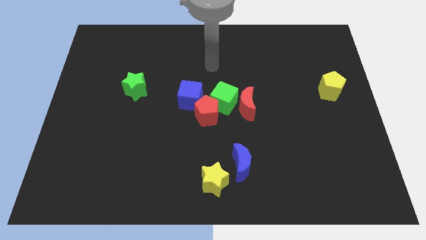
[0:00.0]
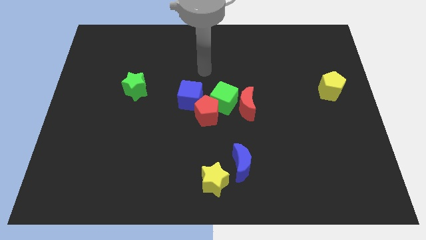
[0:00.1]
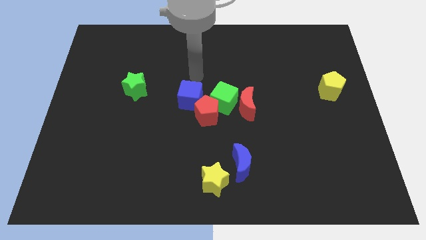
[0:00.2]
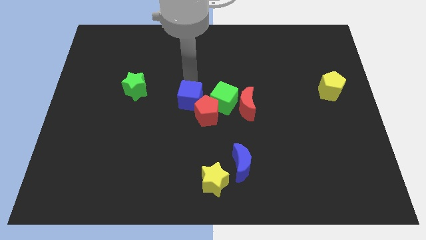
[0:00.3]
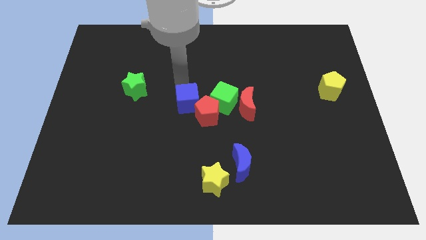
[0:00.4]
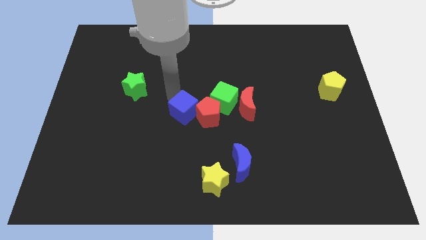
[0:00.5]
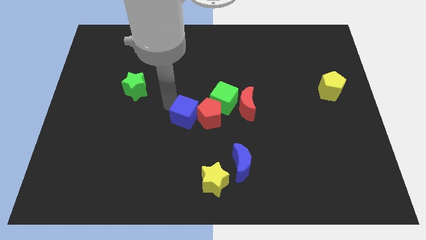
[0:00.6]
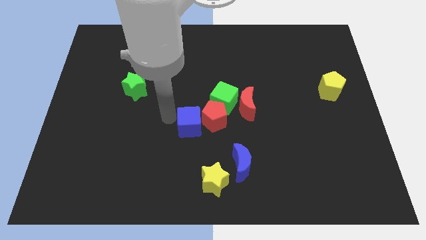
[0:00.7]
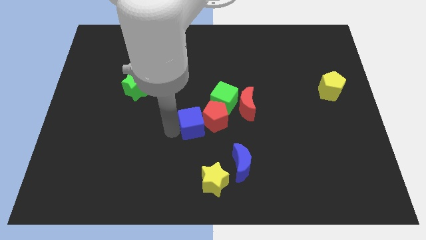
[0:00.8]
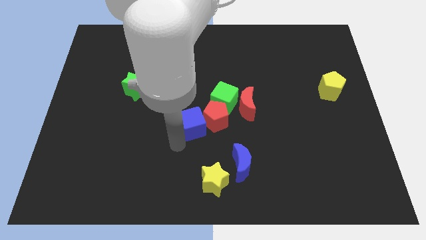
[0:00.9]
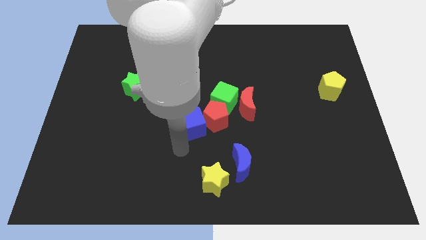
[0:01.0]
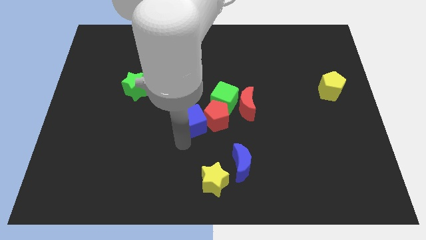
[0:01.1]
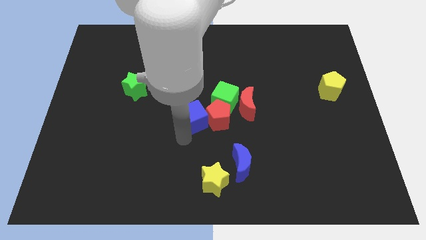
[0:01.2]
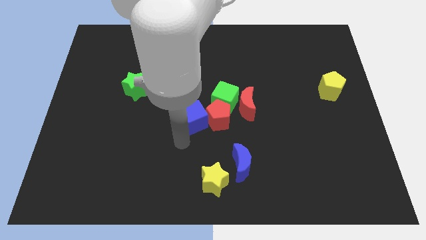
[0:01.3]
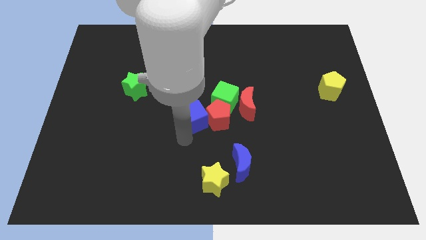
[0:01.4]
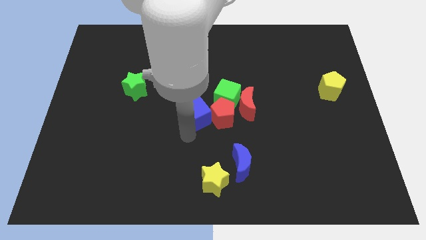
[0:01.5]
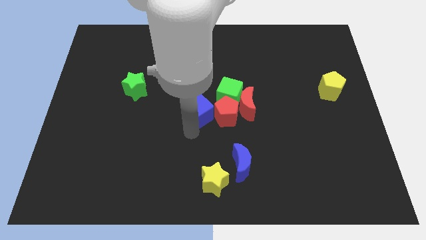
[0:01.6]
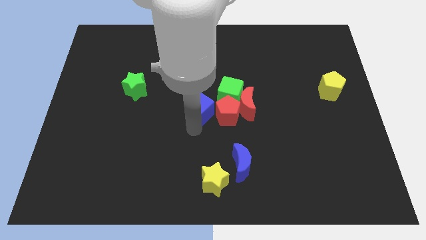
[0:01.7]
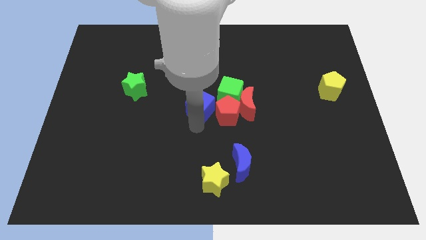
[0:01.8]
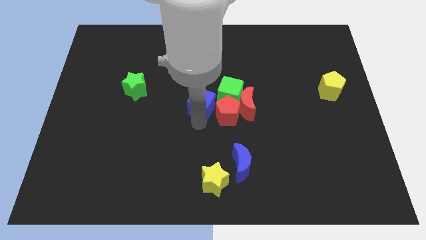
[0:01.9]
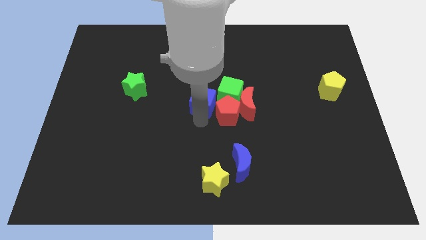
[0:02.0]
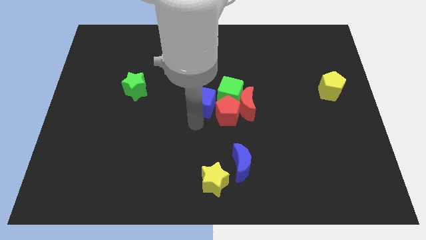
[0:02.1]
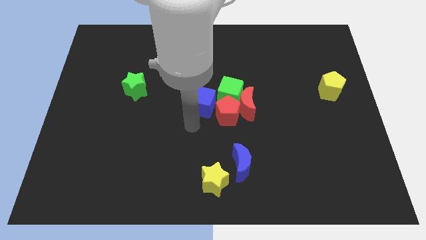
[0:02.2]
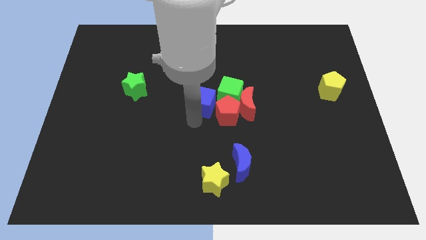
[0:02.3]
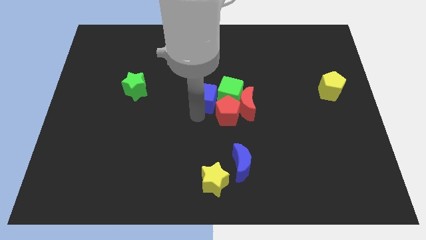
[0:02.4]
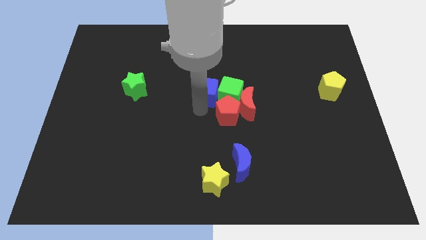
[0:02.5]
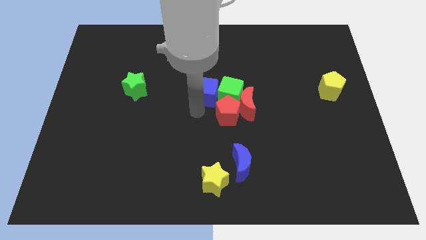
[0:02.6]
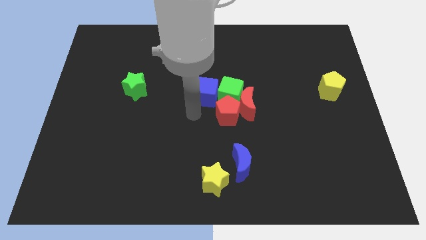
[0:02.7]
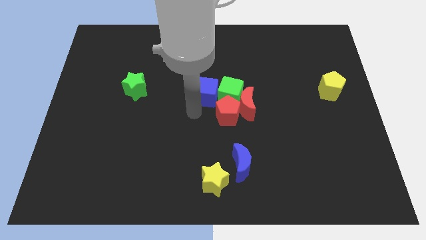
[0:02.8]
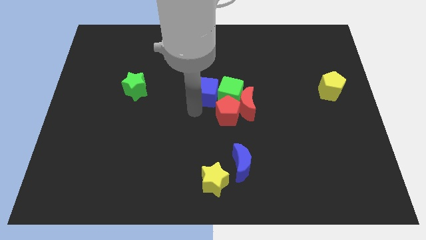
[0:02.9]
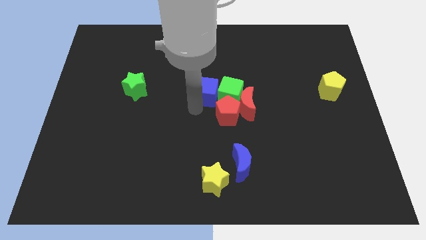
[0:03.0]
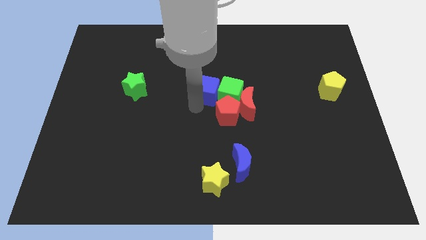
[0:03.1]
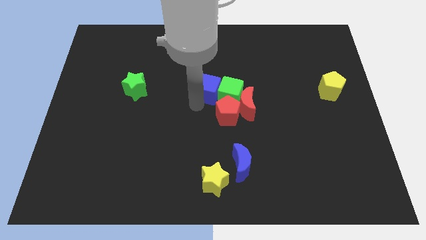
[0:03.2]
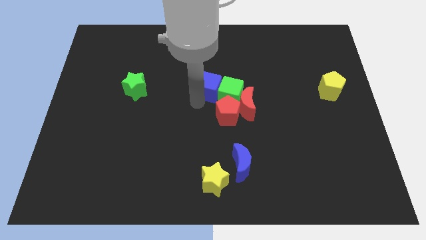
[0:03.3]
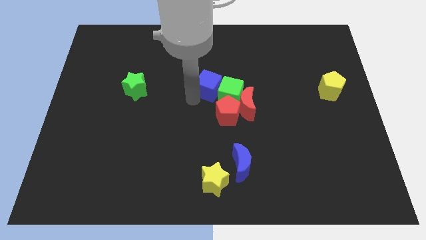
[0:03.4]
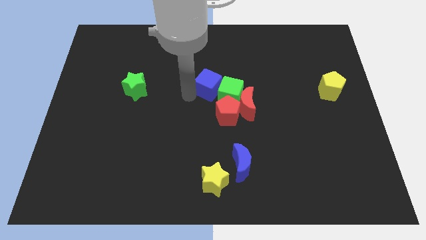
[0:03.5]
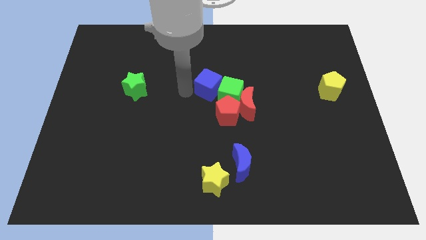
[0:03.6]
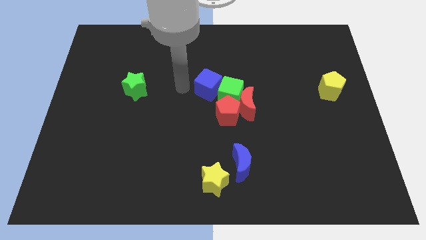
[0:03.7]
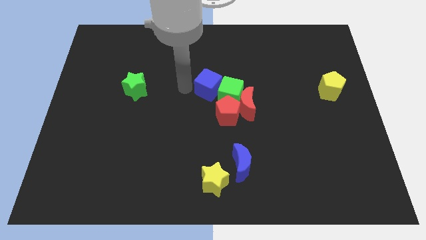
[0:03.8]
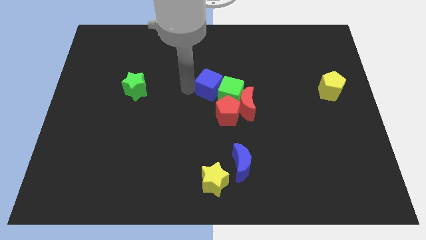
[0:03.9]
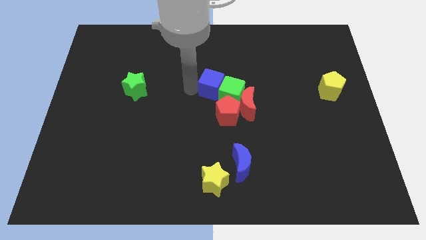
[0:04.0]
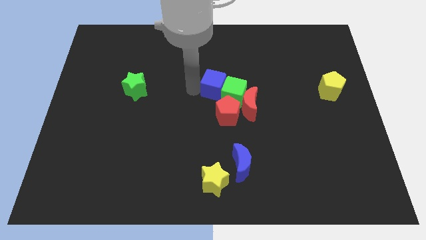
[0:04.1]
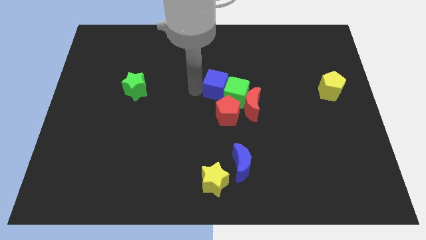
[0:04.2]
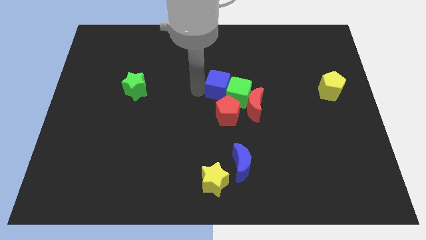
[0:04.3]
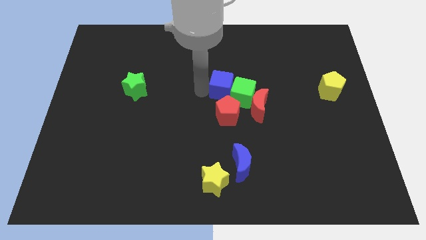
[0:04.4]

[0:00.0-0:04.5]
move the blue cube somewhat to the right

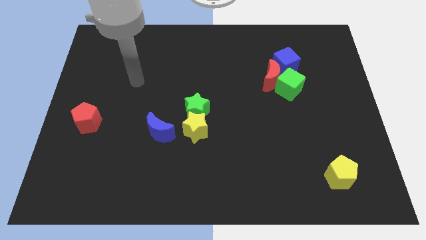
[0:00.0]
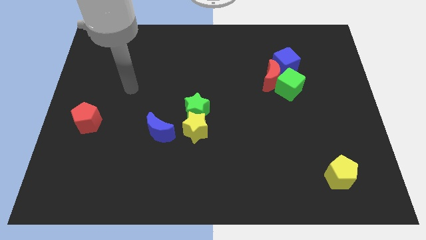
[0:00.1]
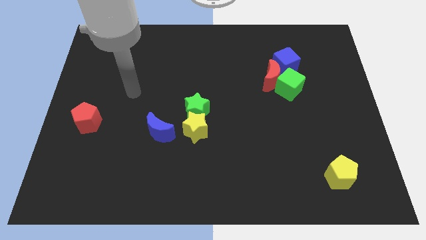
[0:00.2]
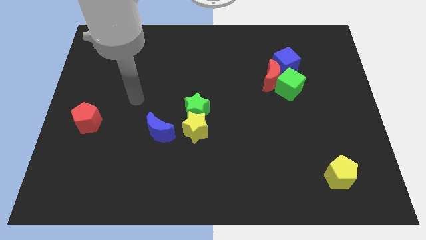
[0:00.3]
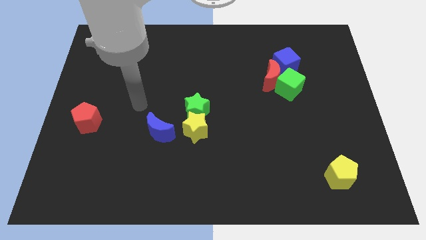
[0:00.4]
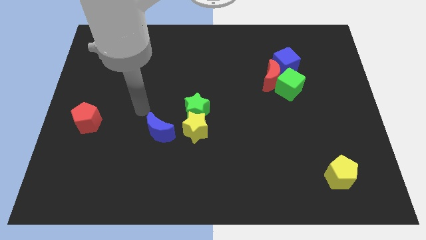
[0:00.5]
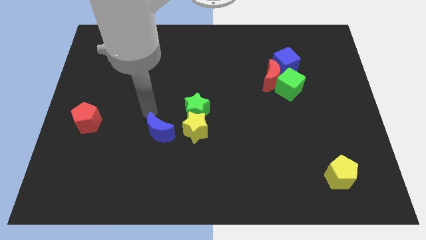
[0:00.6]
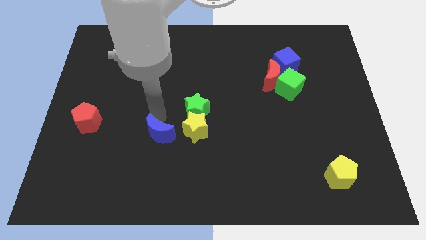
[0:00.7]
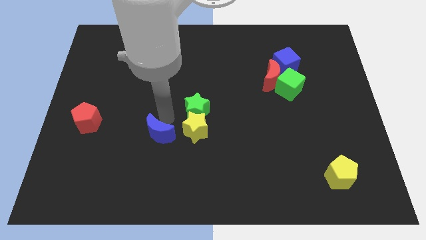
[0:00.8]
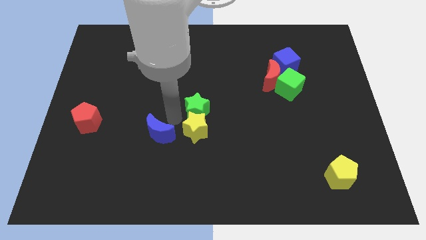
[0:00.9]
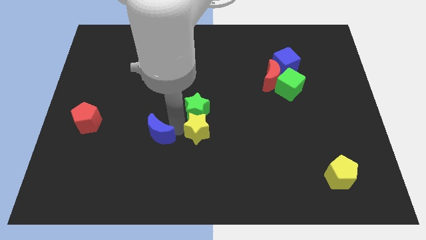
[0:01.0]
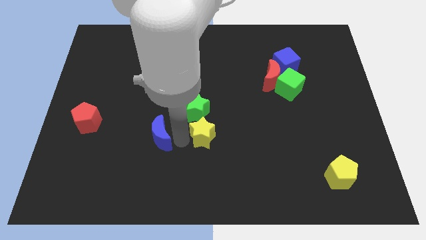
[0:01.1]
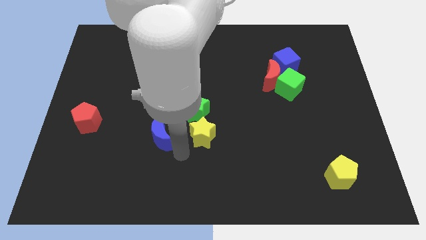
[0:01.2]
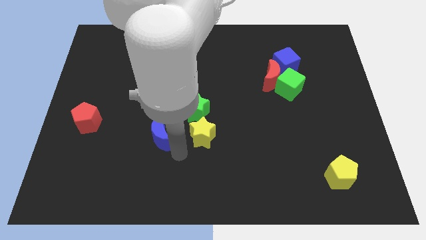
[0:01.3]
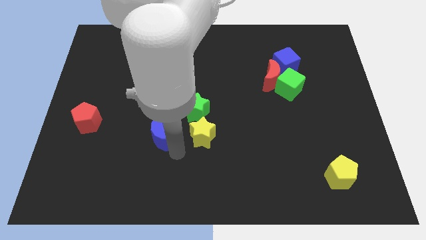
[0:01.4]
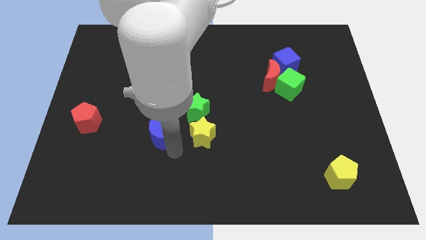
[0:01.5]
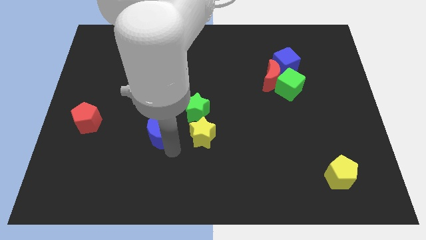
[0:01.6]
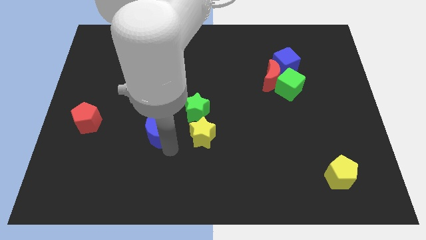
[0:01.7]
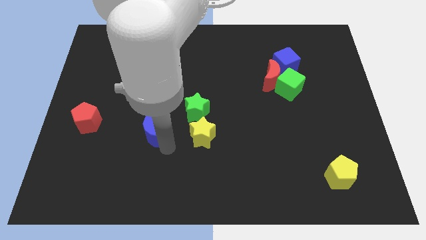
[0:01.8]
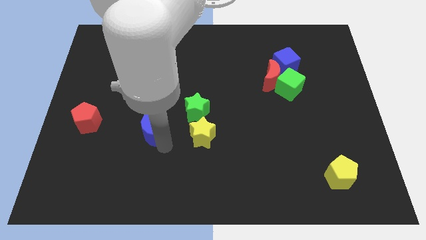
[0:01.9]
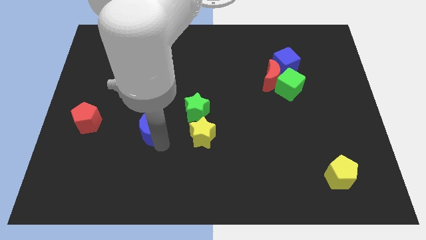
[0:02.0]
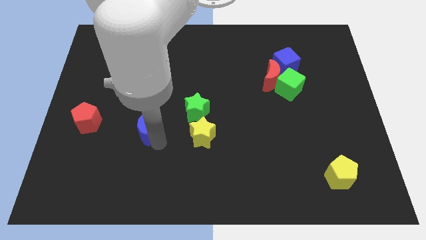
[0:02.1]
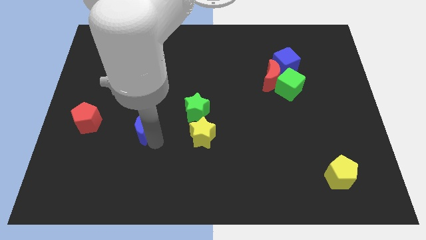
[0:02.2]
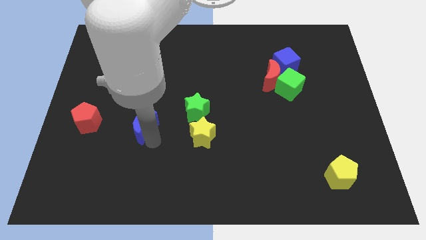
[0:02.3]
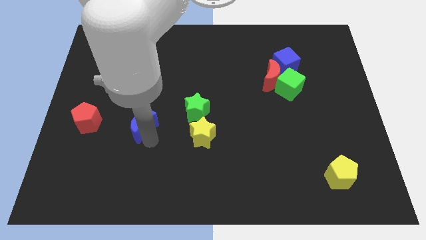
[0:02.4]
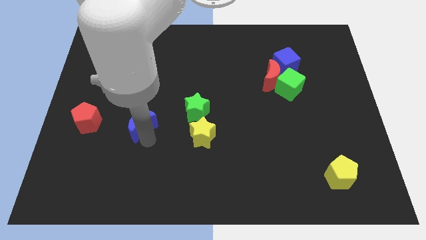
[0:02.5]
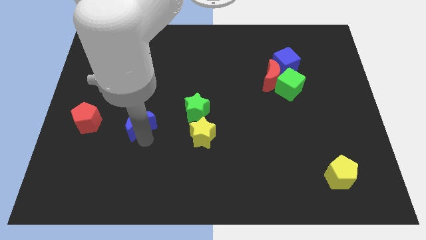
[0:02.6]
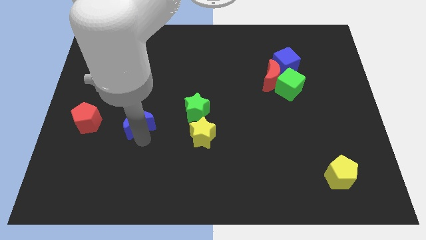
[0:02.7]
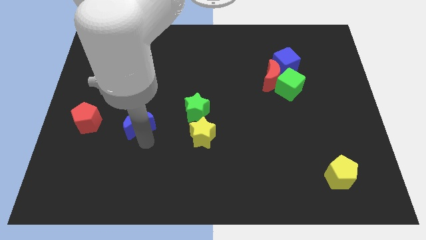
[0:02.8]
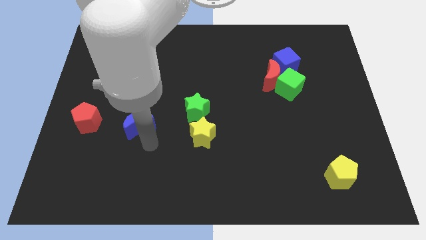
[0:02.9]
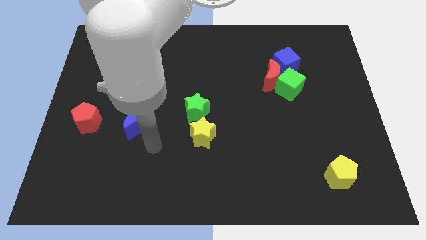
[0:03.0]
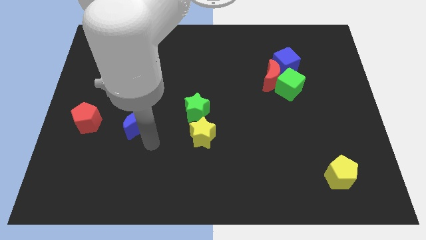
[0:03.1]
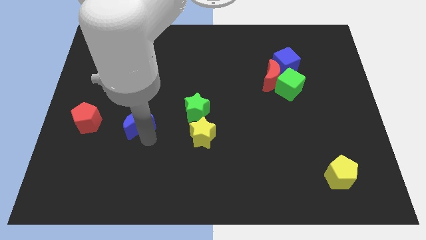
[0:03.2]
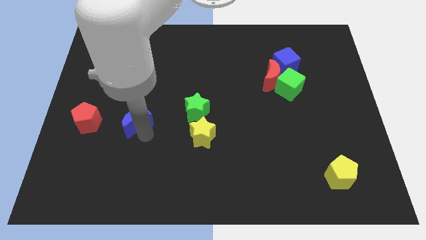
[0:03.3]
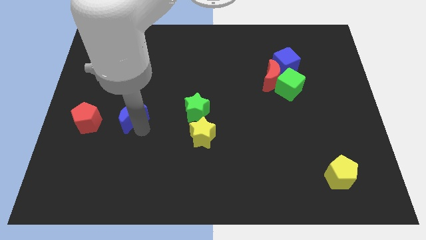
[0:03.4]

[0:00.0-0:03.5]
push the blue moon a little bit upwards and then to the left
